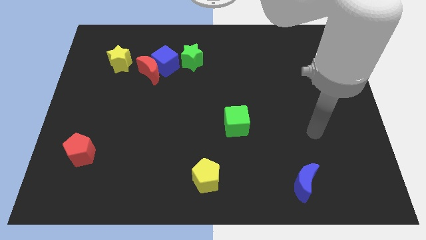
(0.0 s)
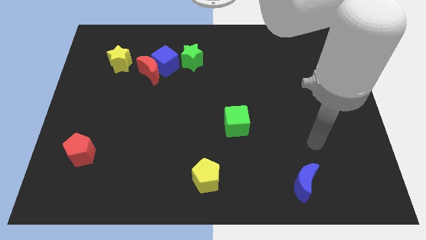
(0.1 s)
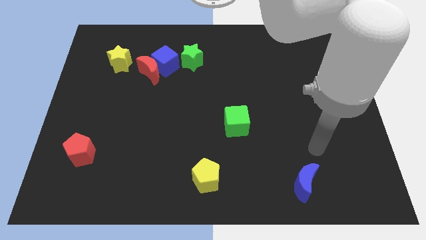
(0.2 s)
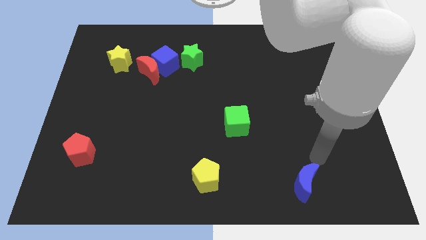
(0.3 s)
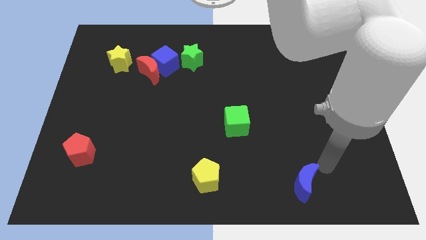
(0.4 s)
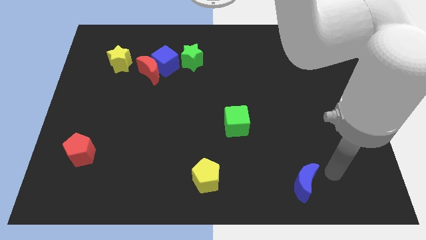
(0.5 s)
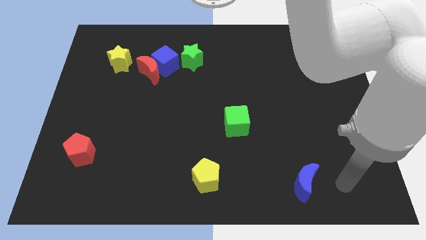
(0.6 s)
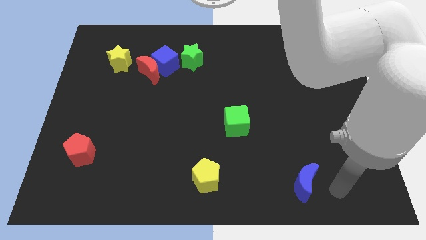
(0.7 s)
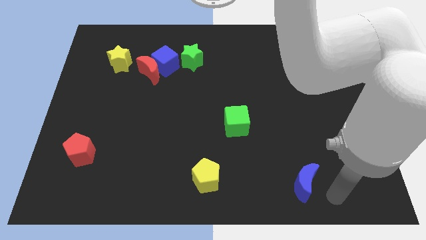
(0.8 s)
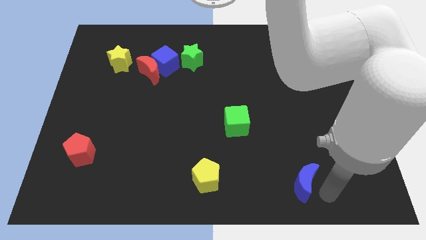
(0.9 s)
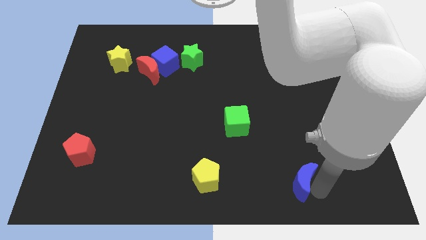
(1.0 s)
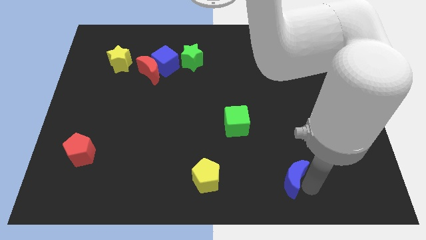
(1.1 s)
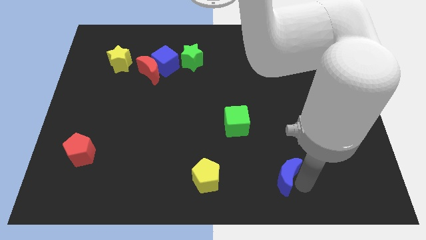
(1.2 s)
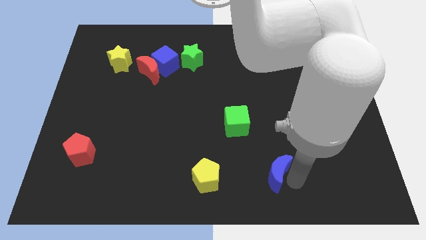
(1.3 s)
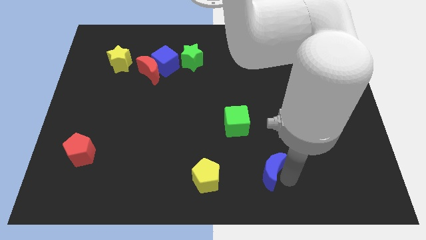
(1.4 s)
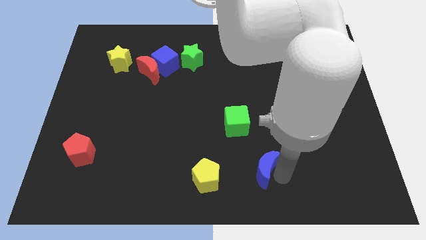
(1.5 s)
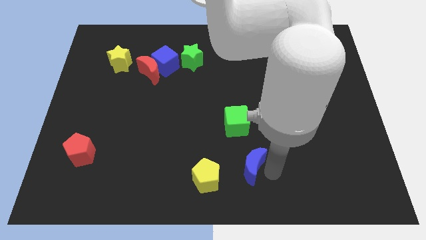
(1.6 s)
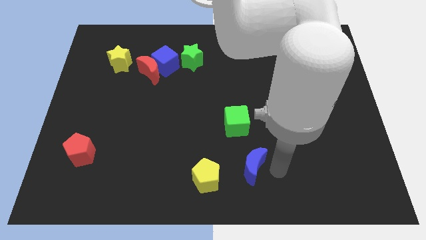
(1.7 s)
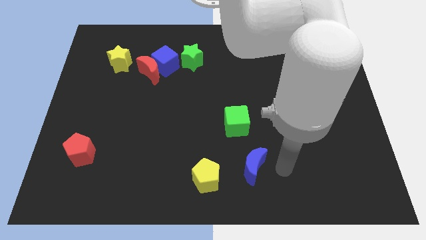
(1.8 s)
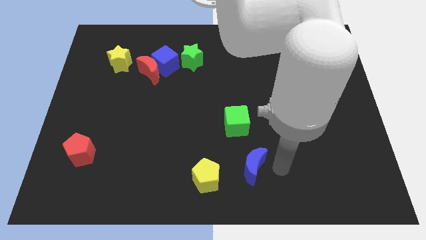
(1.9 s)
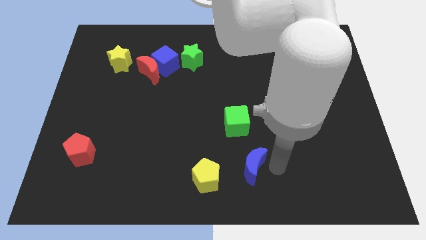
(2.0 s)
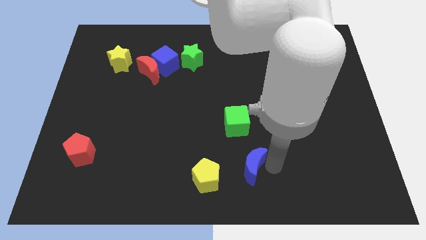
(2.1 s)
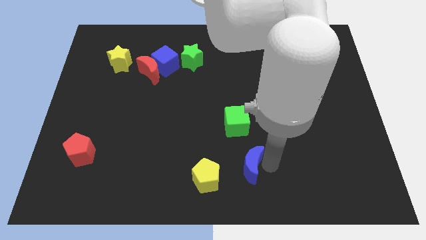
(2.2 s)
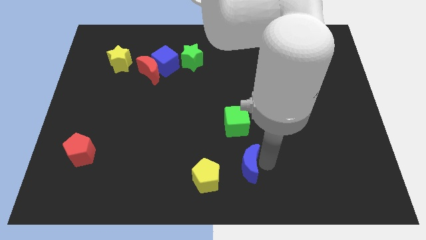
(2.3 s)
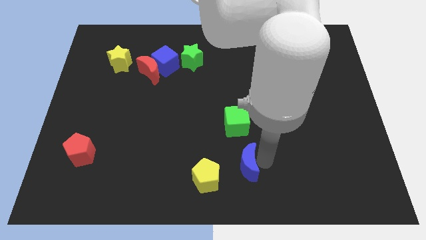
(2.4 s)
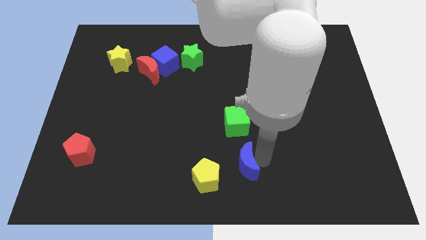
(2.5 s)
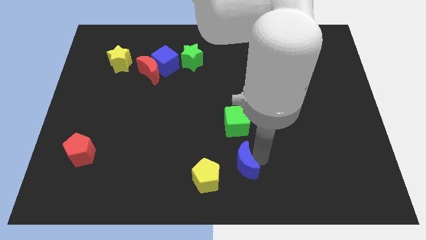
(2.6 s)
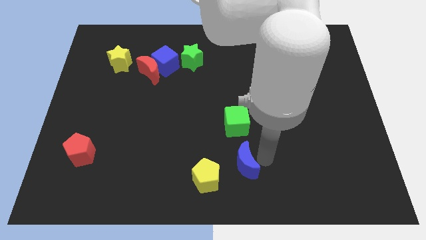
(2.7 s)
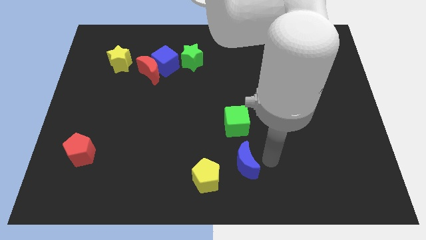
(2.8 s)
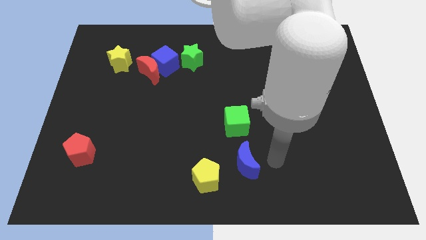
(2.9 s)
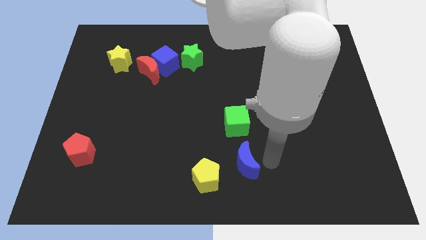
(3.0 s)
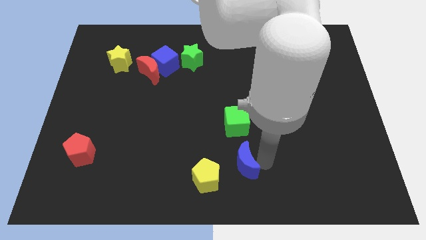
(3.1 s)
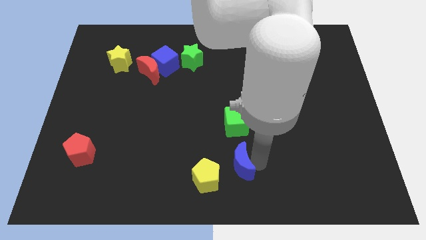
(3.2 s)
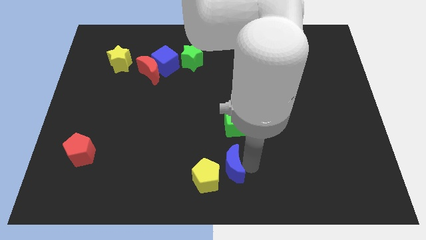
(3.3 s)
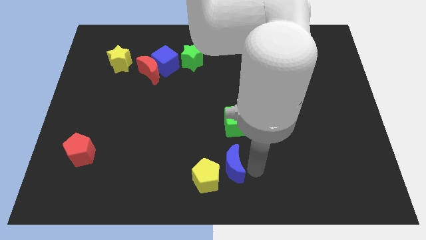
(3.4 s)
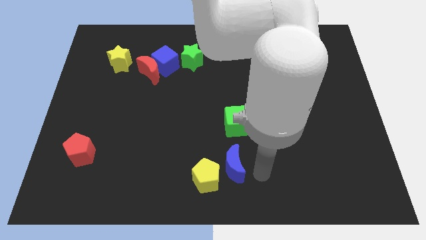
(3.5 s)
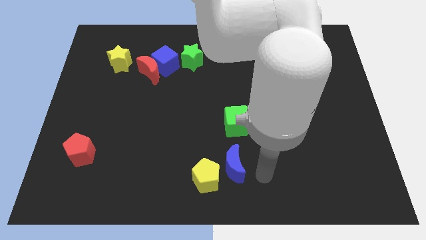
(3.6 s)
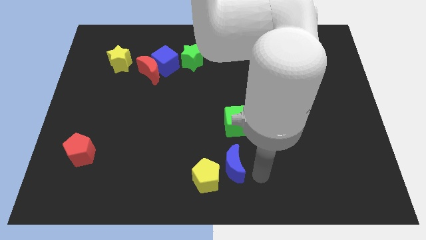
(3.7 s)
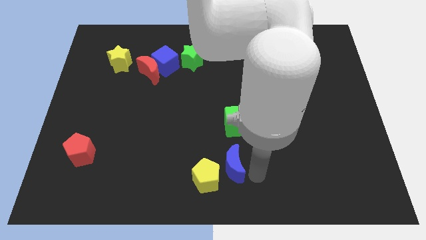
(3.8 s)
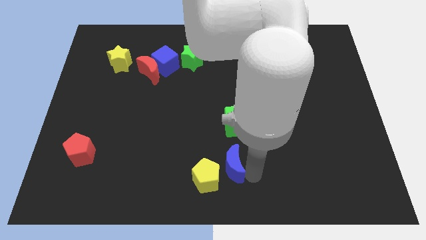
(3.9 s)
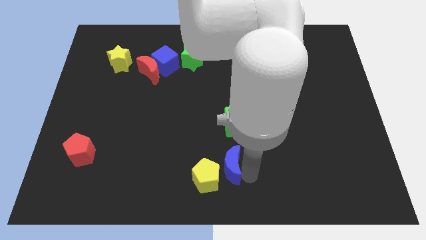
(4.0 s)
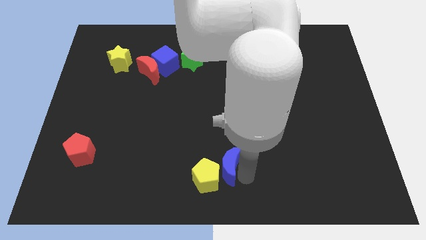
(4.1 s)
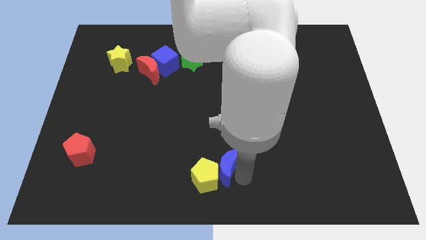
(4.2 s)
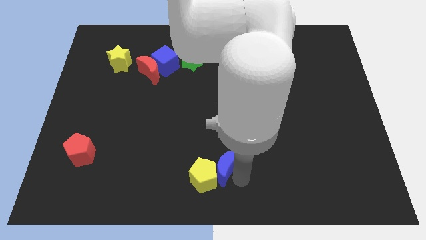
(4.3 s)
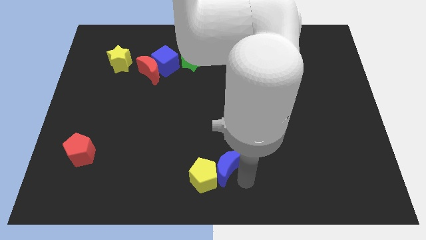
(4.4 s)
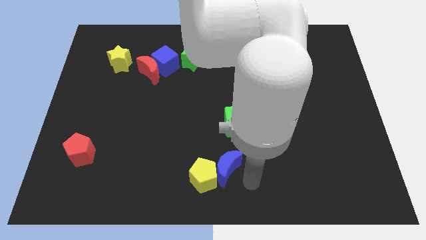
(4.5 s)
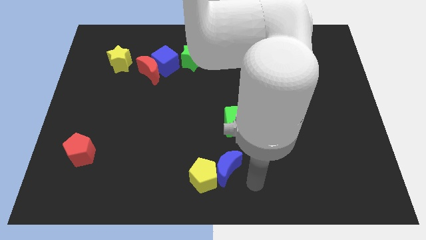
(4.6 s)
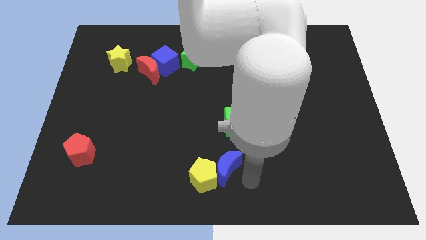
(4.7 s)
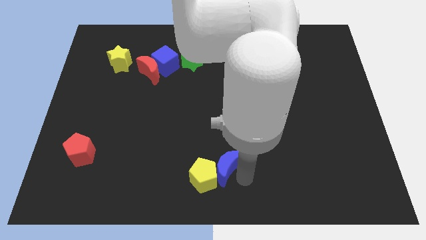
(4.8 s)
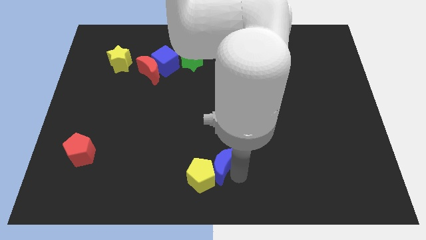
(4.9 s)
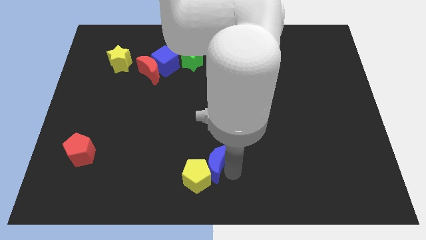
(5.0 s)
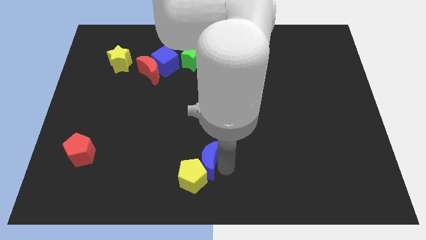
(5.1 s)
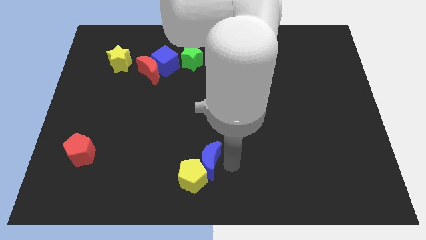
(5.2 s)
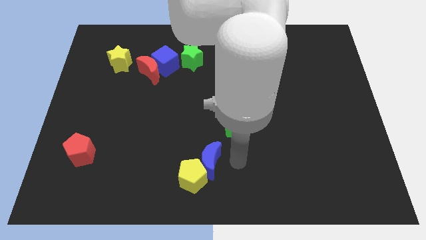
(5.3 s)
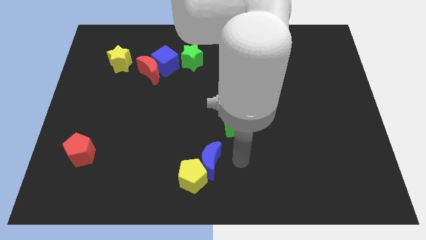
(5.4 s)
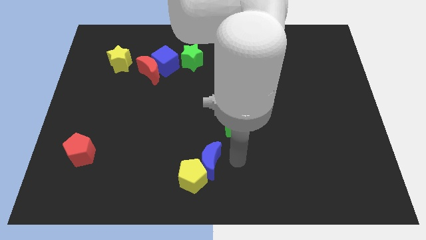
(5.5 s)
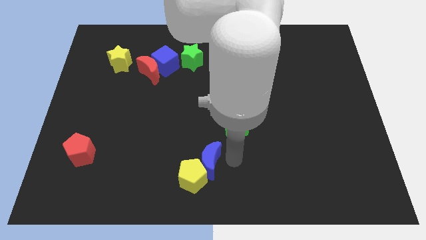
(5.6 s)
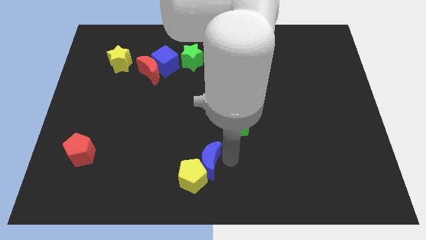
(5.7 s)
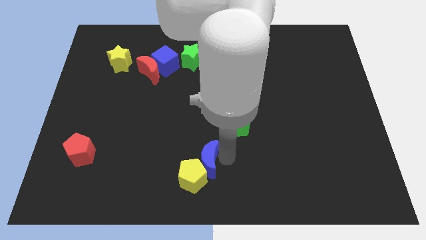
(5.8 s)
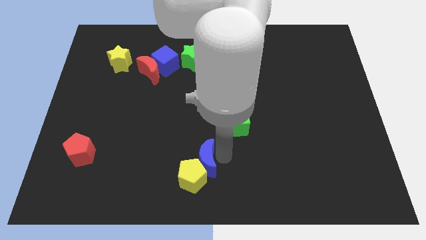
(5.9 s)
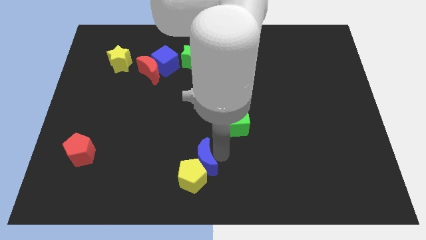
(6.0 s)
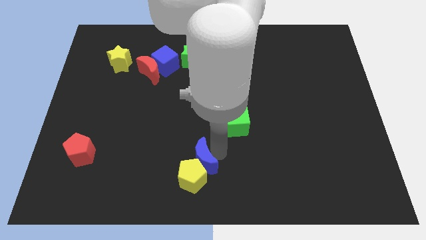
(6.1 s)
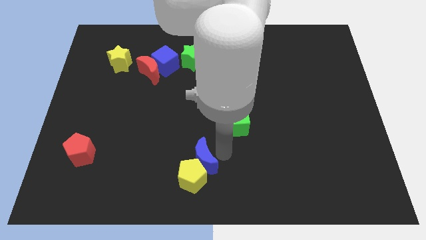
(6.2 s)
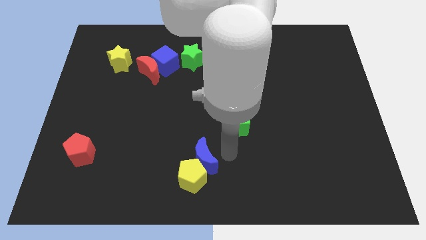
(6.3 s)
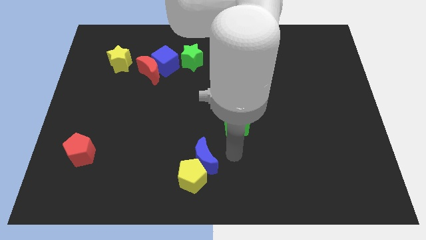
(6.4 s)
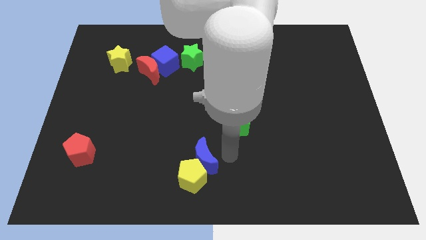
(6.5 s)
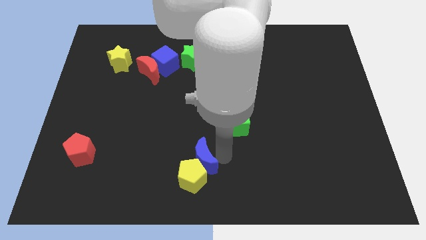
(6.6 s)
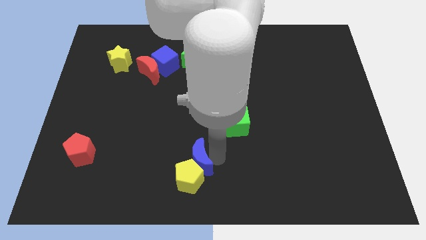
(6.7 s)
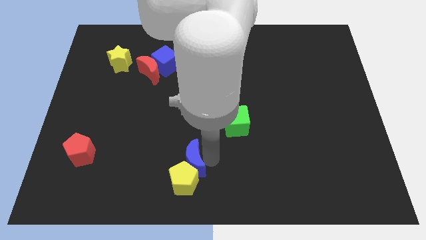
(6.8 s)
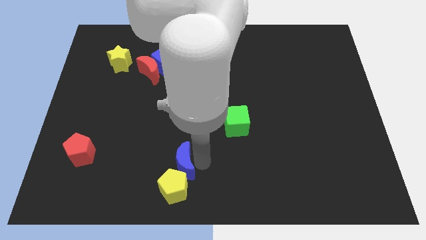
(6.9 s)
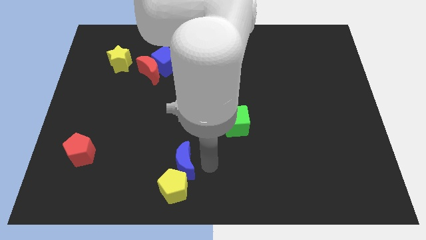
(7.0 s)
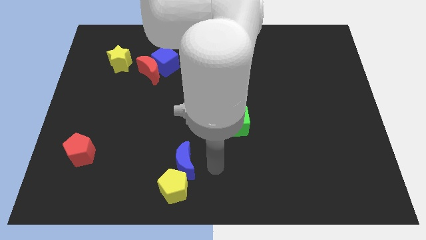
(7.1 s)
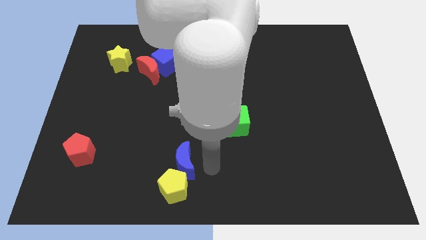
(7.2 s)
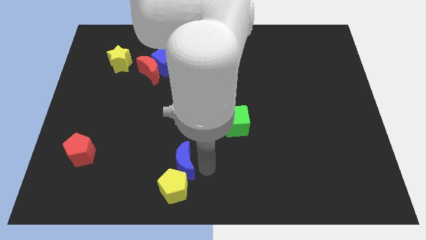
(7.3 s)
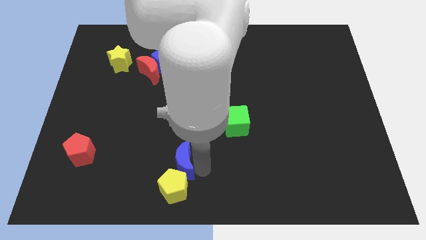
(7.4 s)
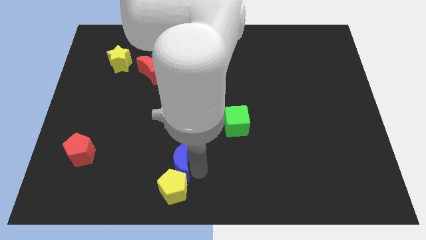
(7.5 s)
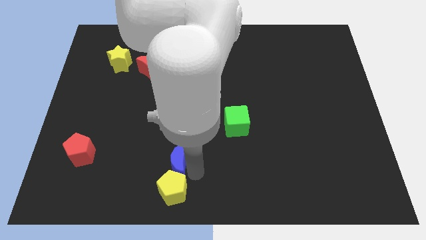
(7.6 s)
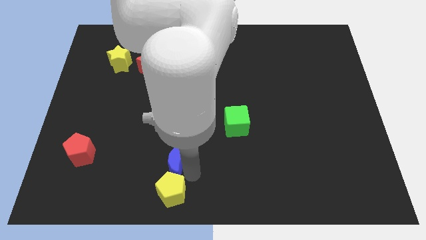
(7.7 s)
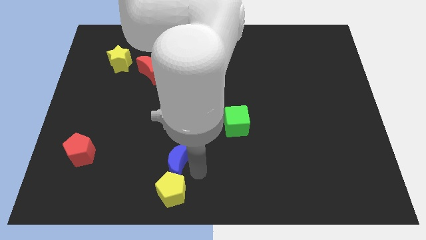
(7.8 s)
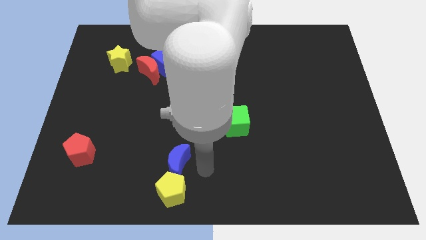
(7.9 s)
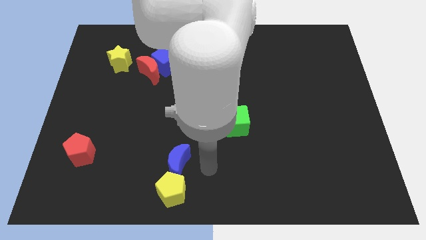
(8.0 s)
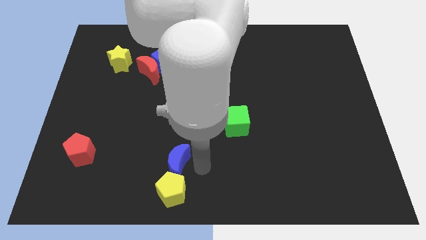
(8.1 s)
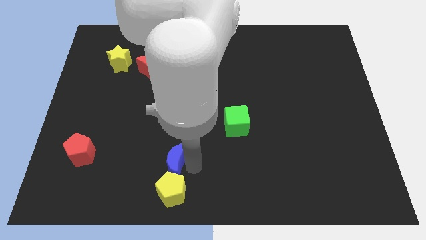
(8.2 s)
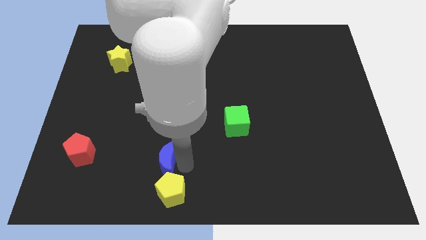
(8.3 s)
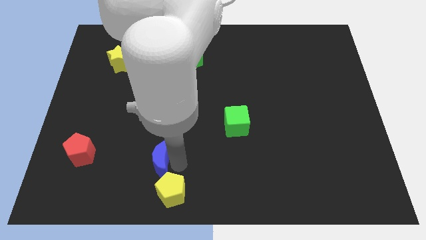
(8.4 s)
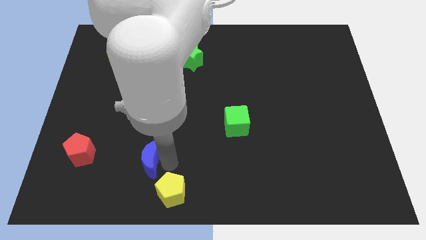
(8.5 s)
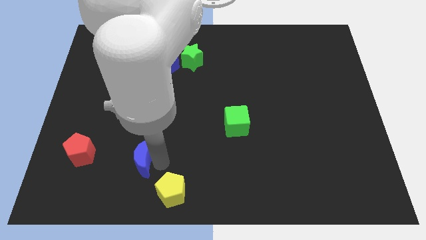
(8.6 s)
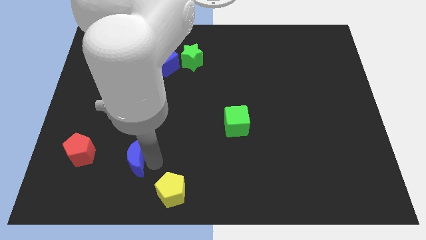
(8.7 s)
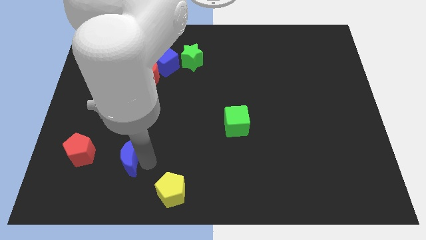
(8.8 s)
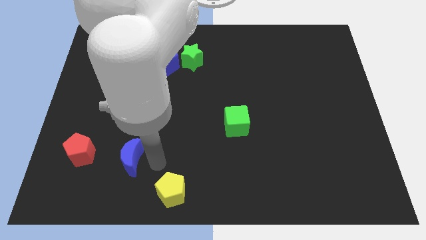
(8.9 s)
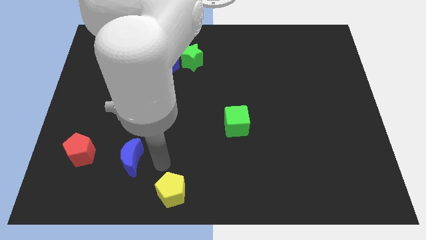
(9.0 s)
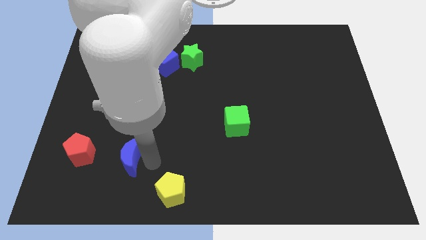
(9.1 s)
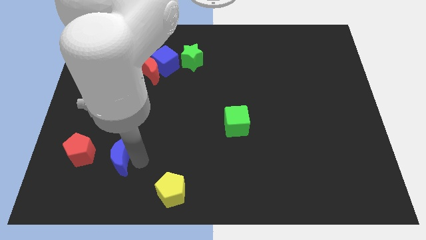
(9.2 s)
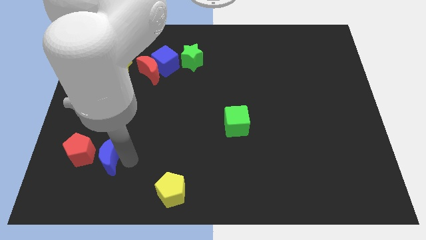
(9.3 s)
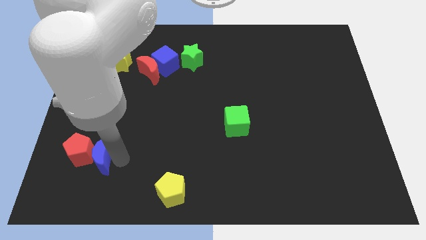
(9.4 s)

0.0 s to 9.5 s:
move the blue moon towards the red pentagon
